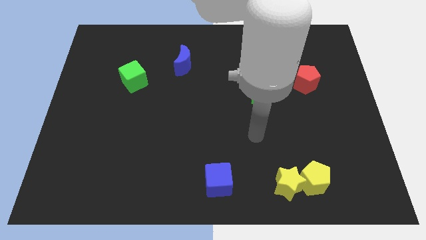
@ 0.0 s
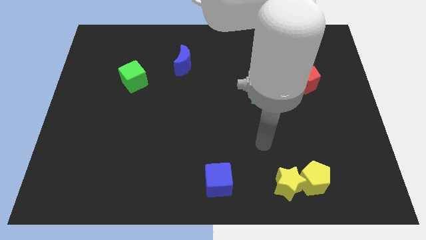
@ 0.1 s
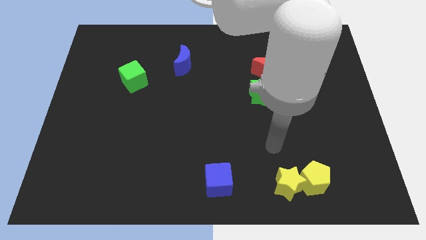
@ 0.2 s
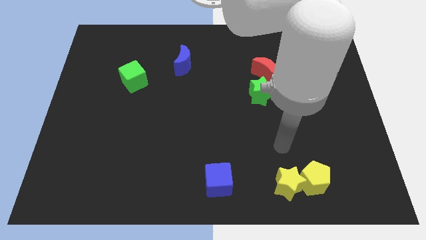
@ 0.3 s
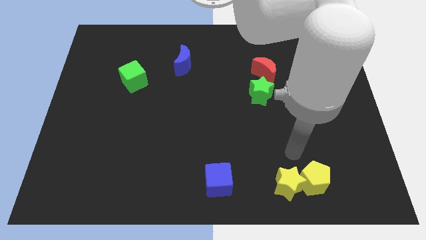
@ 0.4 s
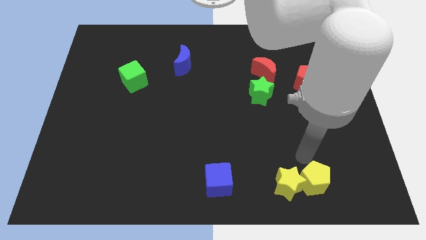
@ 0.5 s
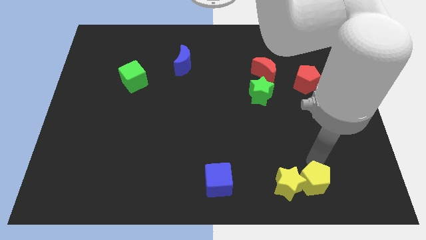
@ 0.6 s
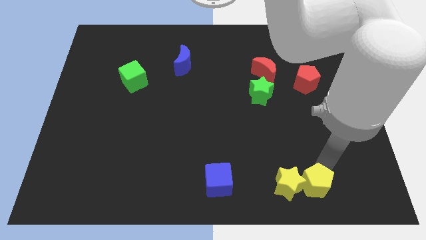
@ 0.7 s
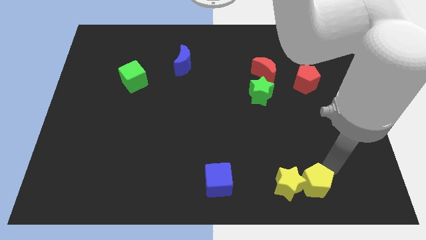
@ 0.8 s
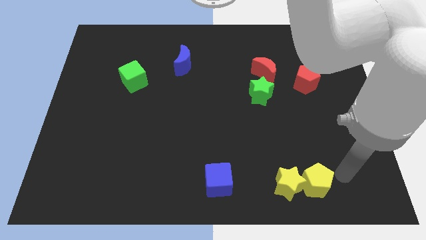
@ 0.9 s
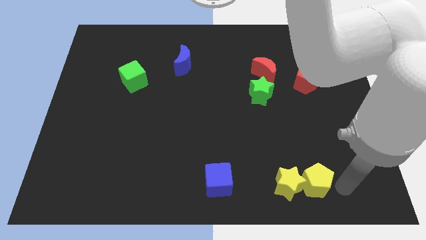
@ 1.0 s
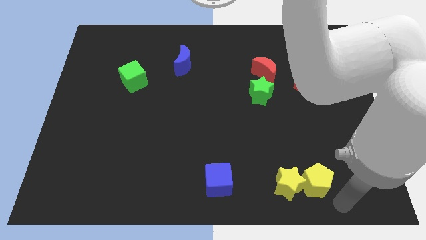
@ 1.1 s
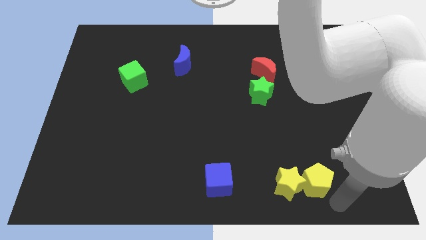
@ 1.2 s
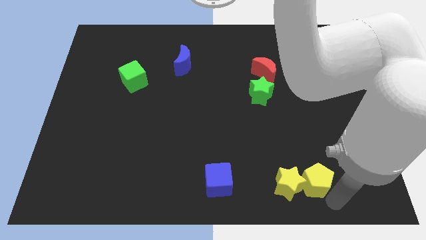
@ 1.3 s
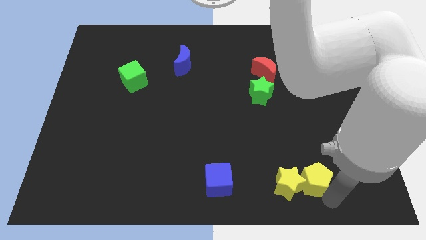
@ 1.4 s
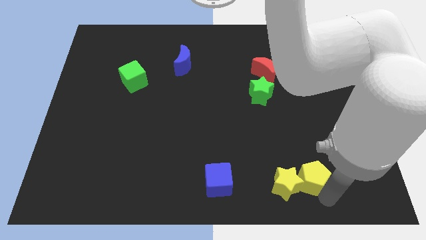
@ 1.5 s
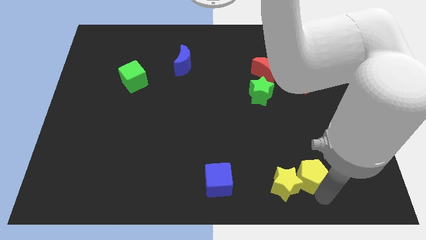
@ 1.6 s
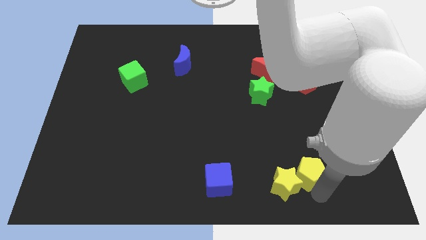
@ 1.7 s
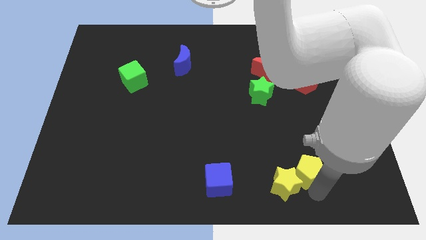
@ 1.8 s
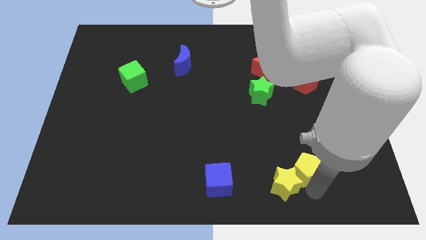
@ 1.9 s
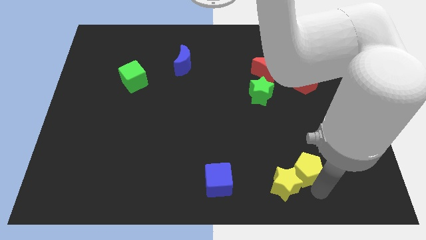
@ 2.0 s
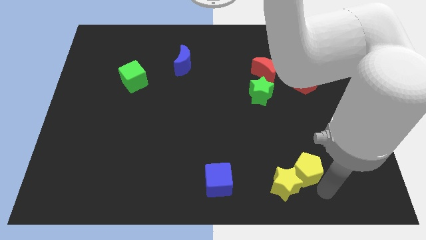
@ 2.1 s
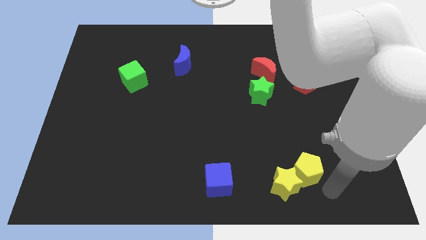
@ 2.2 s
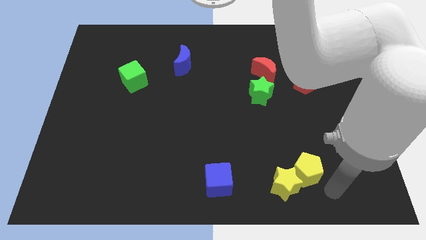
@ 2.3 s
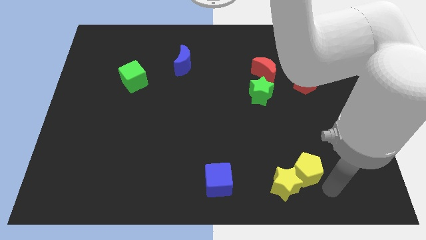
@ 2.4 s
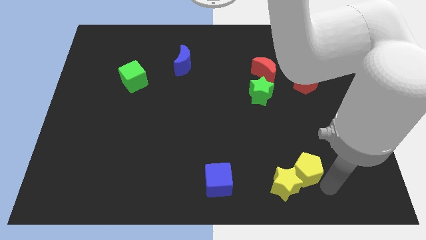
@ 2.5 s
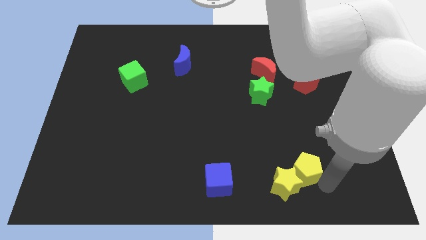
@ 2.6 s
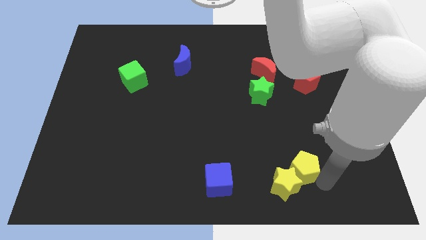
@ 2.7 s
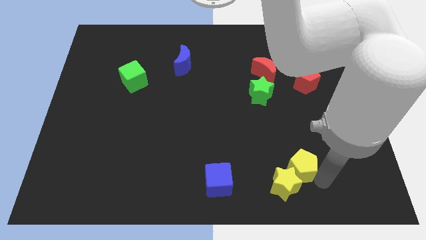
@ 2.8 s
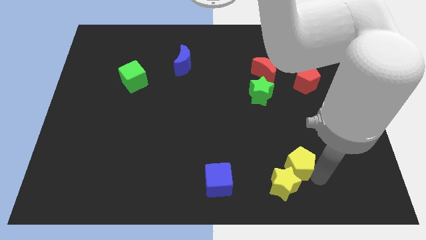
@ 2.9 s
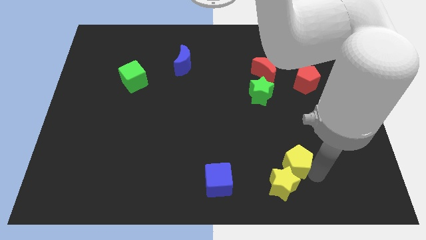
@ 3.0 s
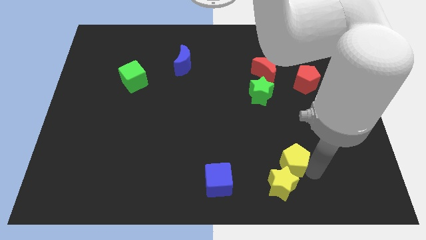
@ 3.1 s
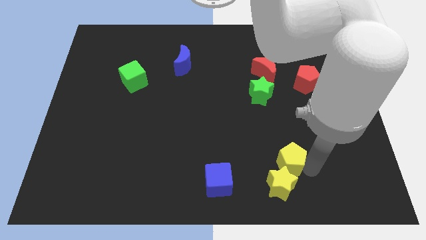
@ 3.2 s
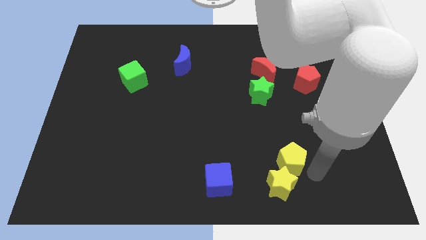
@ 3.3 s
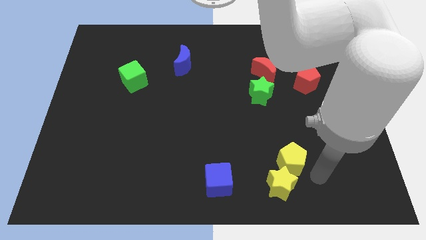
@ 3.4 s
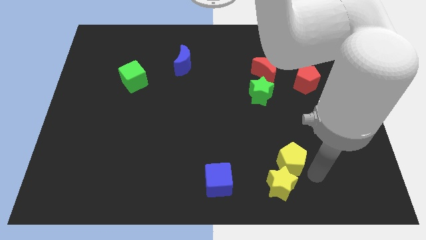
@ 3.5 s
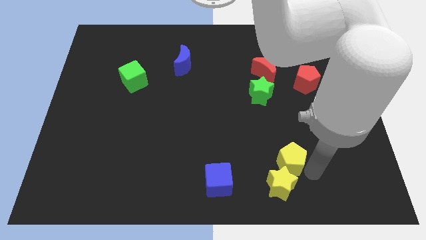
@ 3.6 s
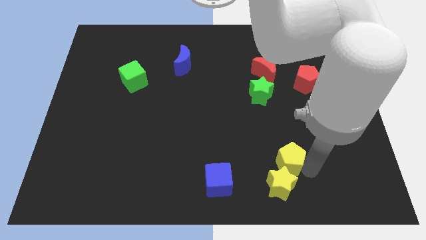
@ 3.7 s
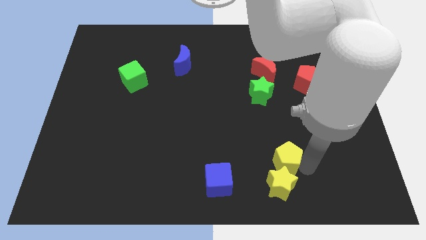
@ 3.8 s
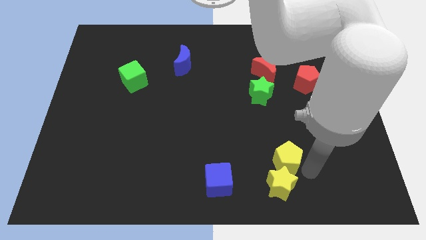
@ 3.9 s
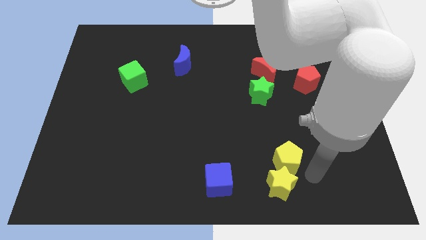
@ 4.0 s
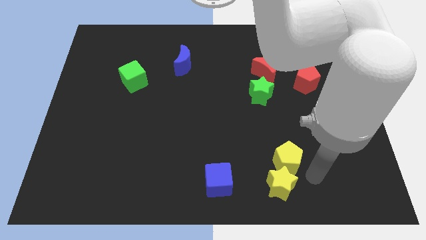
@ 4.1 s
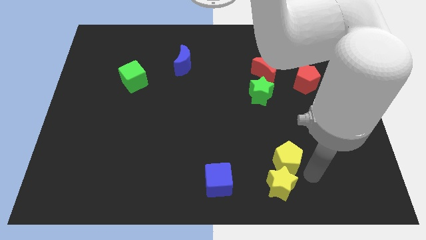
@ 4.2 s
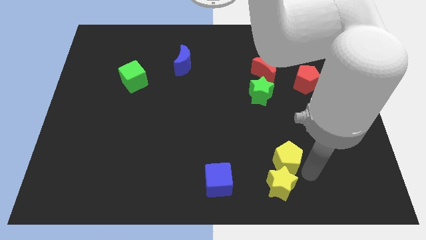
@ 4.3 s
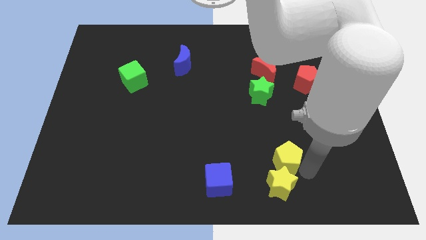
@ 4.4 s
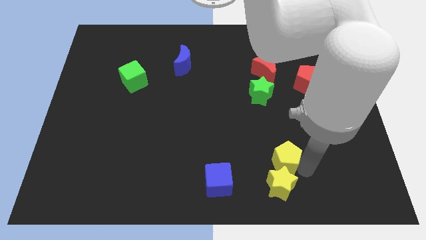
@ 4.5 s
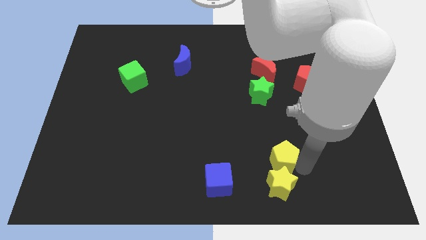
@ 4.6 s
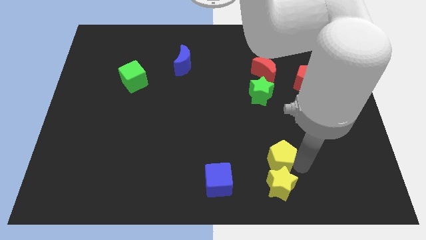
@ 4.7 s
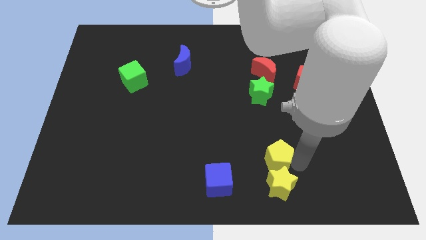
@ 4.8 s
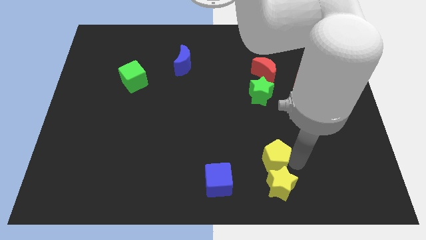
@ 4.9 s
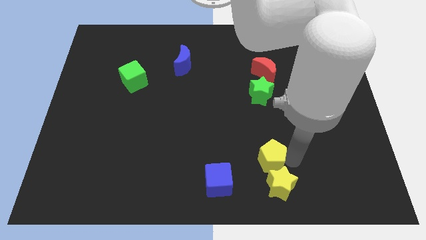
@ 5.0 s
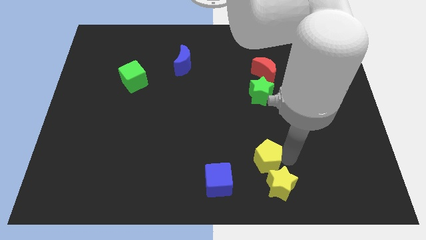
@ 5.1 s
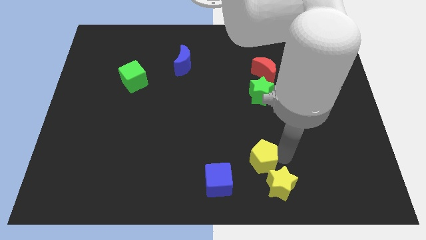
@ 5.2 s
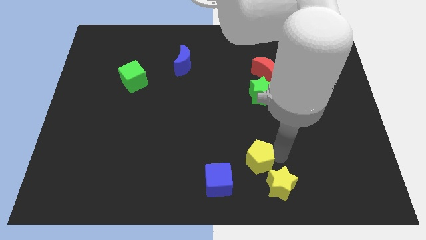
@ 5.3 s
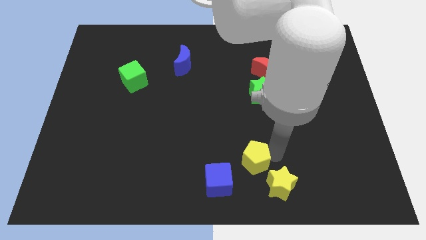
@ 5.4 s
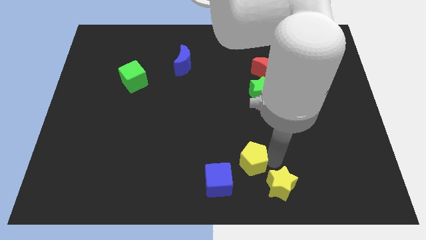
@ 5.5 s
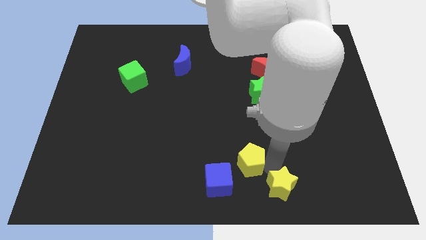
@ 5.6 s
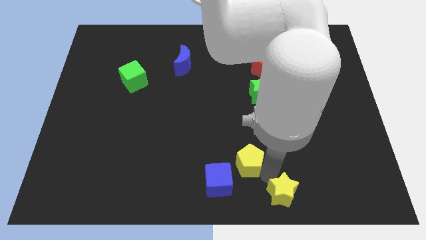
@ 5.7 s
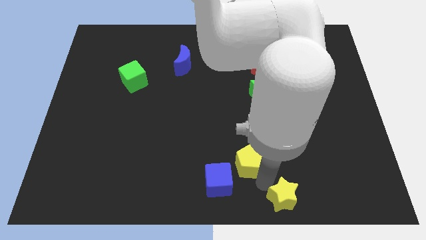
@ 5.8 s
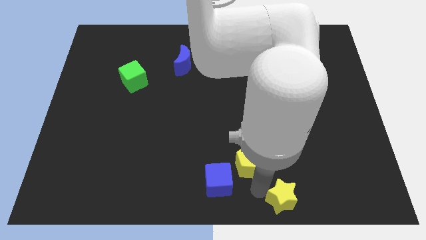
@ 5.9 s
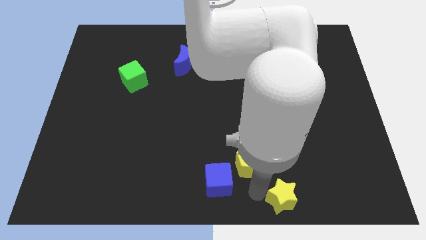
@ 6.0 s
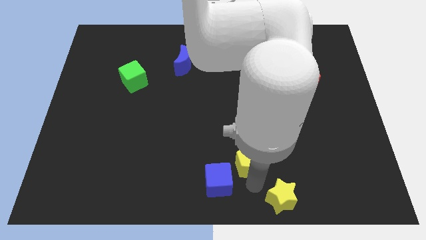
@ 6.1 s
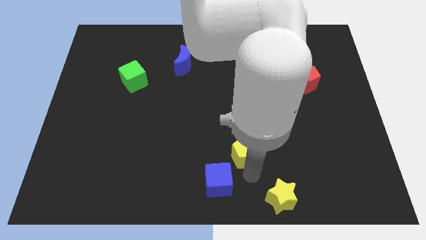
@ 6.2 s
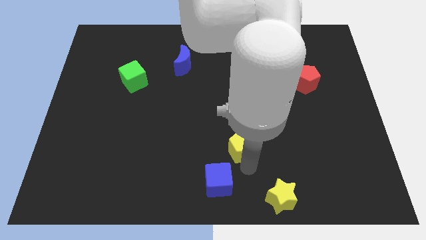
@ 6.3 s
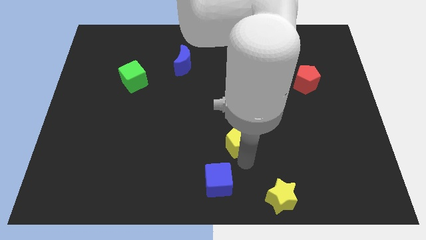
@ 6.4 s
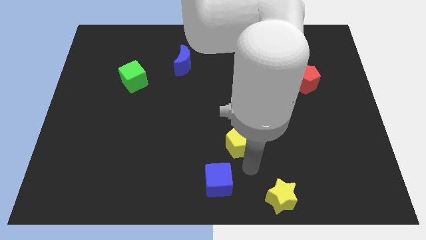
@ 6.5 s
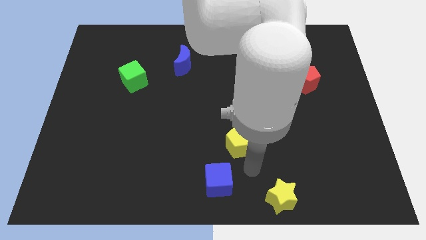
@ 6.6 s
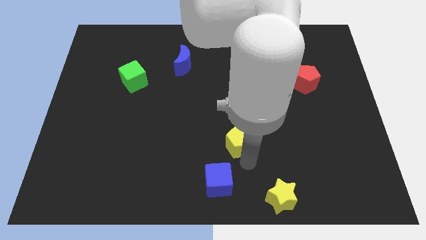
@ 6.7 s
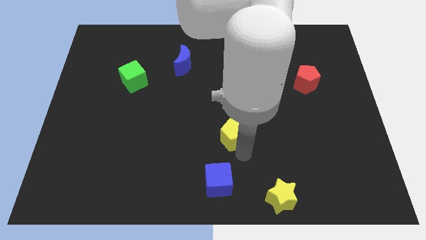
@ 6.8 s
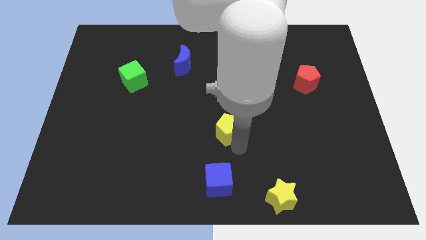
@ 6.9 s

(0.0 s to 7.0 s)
move the yellow pentagon up and then left

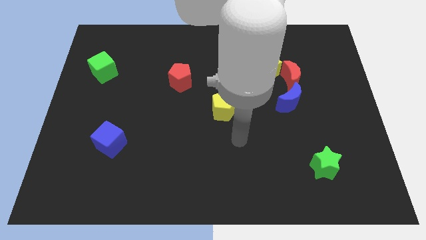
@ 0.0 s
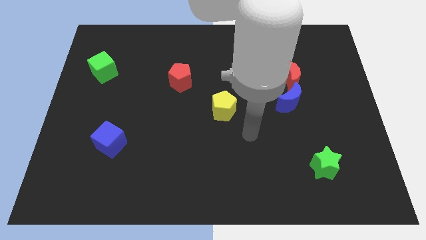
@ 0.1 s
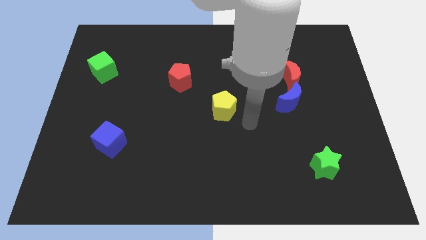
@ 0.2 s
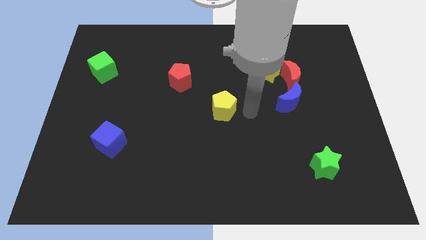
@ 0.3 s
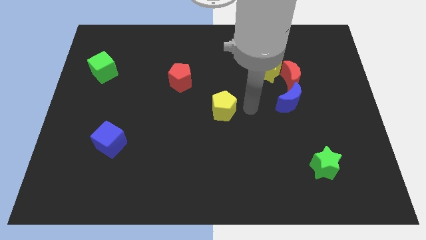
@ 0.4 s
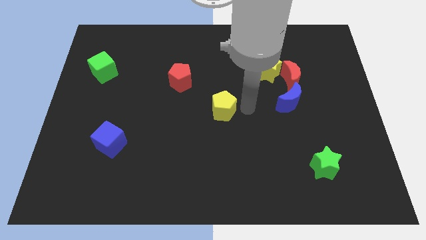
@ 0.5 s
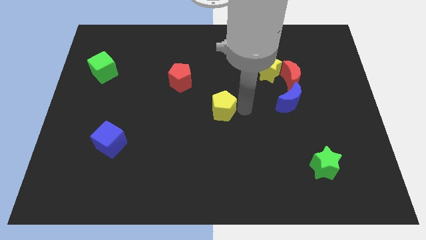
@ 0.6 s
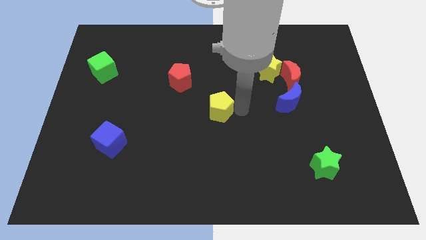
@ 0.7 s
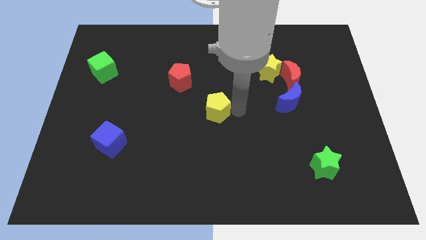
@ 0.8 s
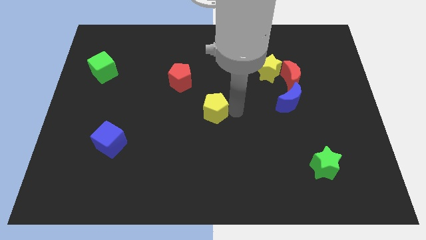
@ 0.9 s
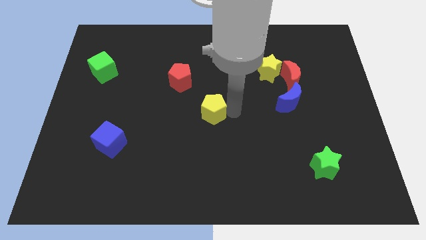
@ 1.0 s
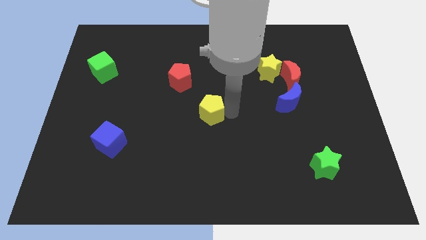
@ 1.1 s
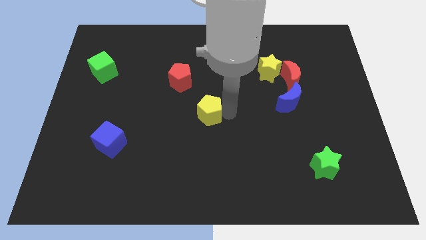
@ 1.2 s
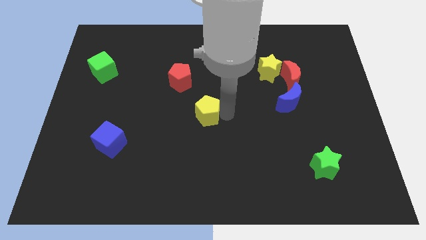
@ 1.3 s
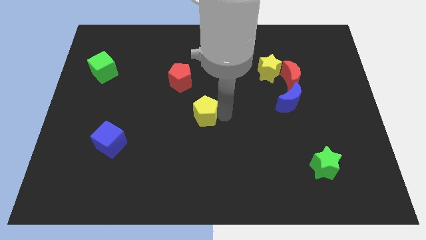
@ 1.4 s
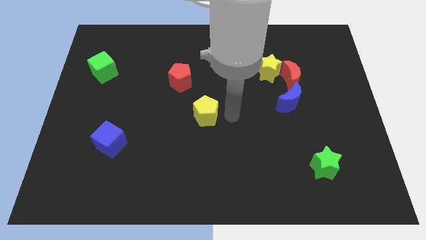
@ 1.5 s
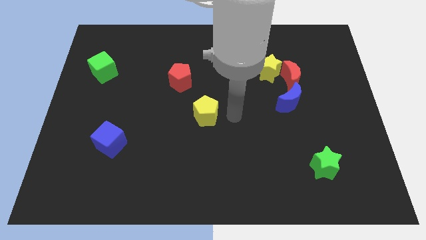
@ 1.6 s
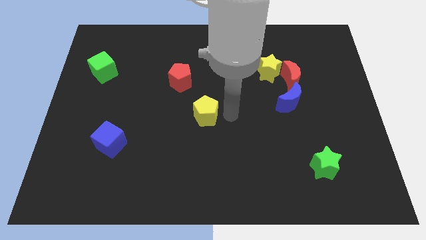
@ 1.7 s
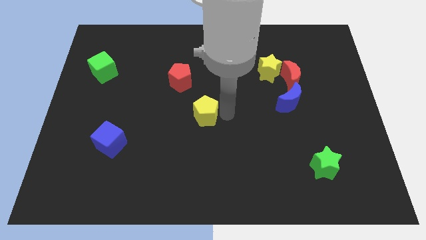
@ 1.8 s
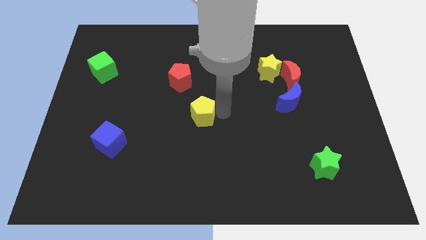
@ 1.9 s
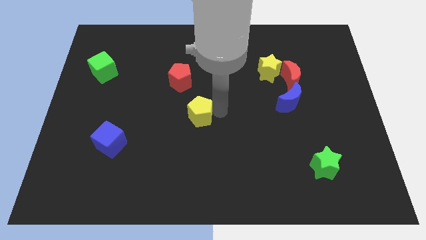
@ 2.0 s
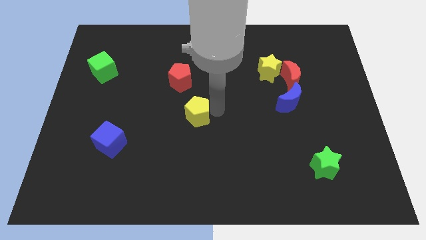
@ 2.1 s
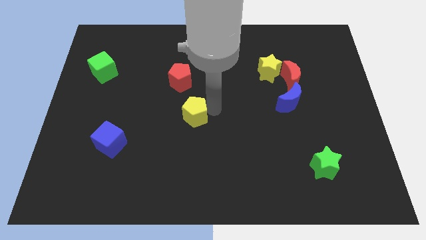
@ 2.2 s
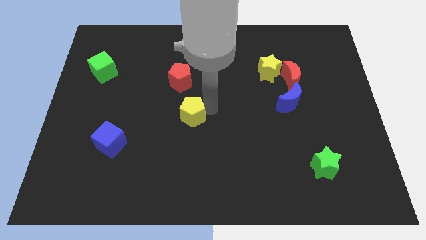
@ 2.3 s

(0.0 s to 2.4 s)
slightly move the yellow pentagon left
